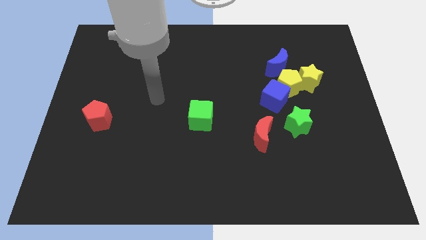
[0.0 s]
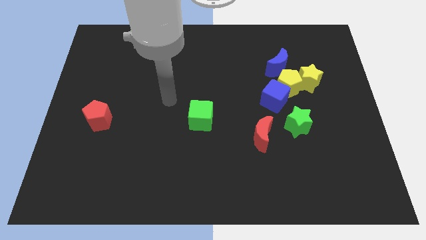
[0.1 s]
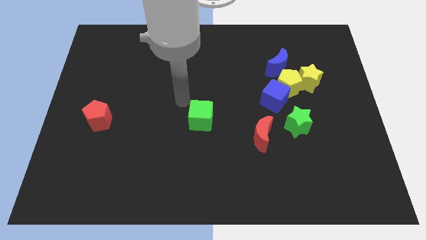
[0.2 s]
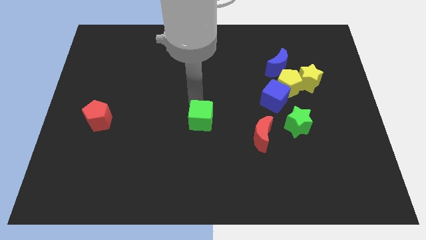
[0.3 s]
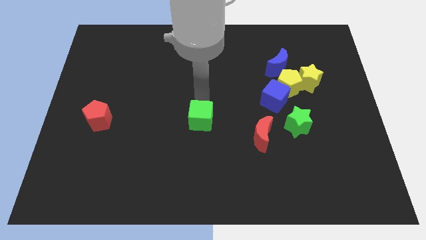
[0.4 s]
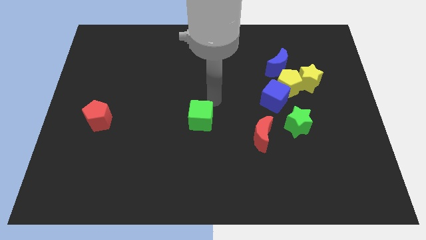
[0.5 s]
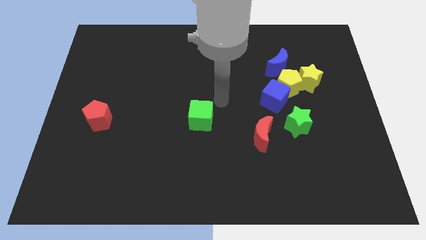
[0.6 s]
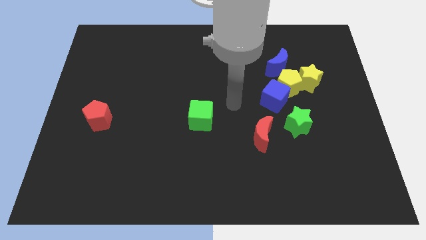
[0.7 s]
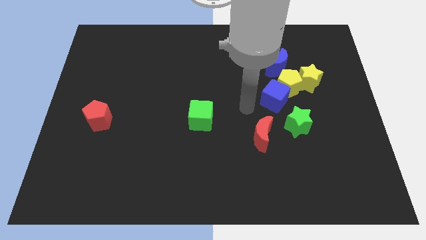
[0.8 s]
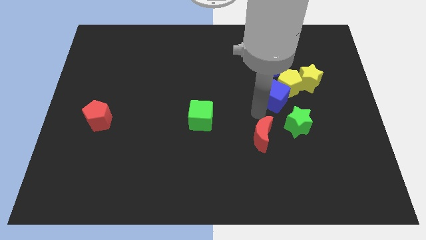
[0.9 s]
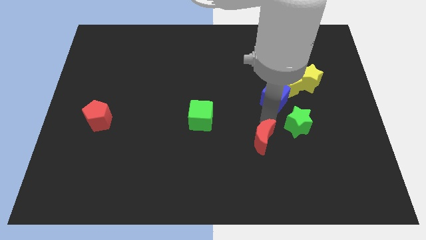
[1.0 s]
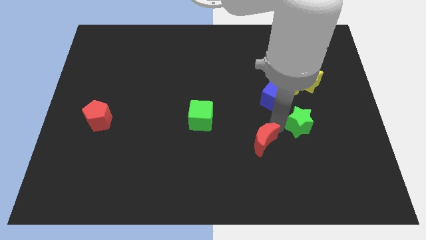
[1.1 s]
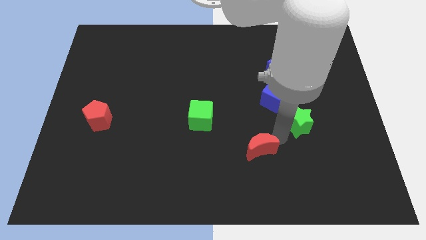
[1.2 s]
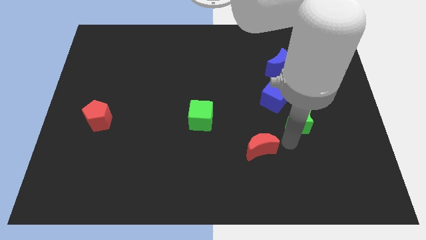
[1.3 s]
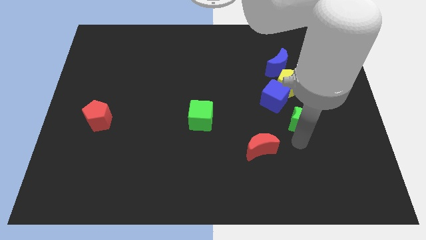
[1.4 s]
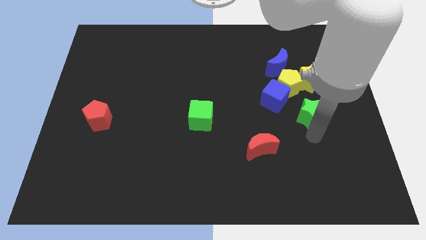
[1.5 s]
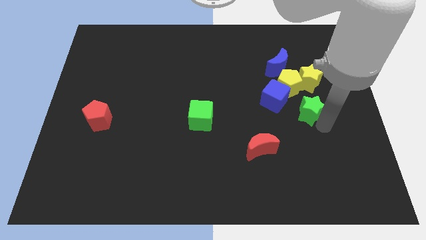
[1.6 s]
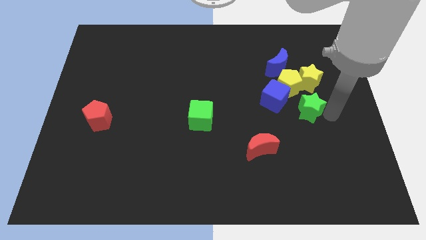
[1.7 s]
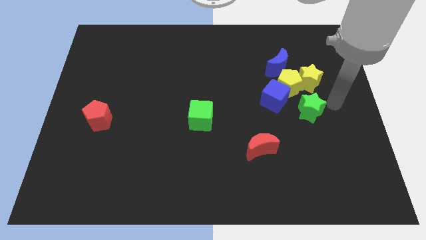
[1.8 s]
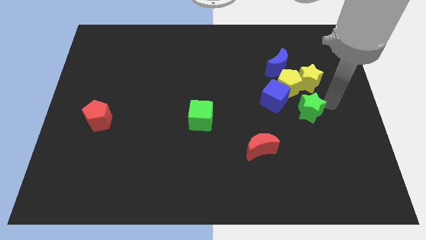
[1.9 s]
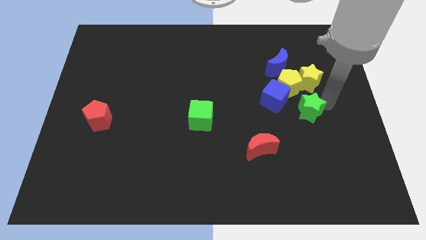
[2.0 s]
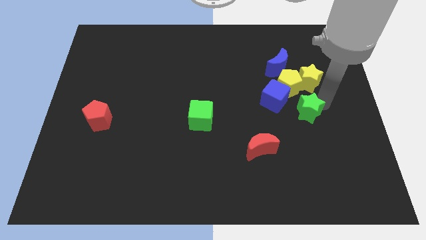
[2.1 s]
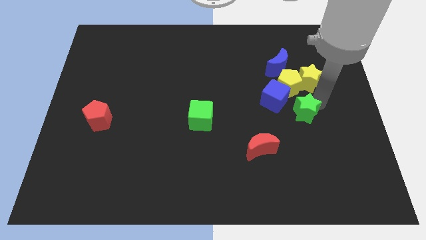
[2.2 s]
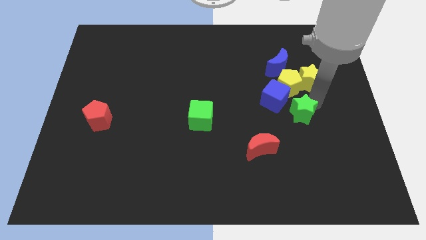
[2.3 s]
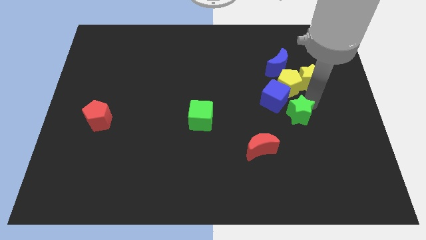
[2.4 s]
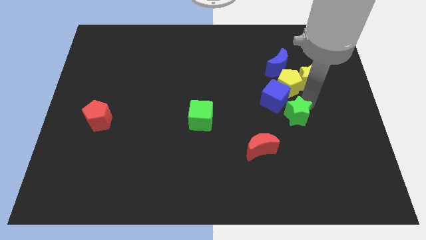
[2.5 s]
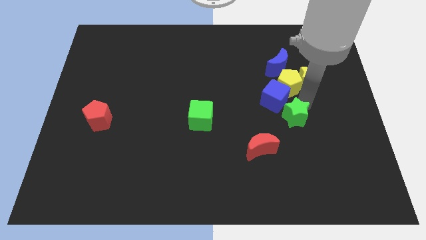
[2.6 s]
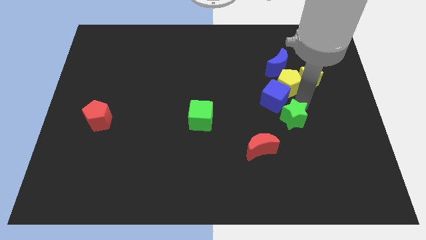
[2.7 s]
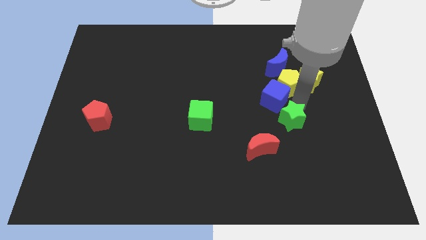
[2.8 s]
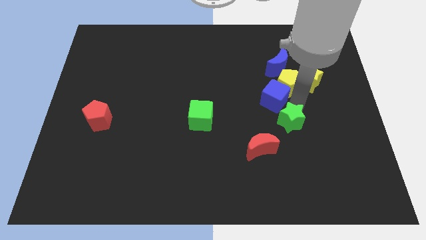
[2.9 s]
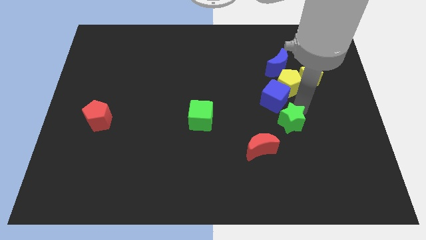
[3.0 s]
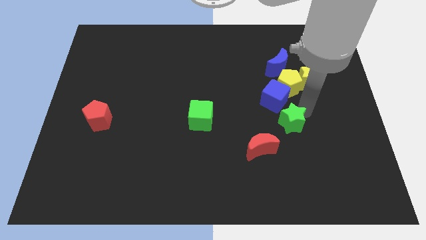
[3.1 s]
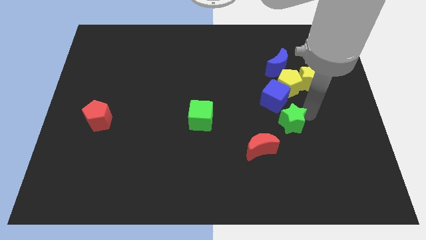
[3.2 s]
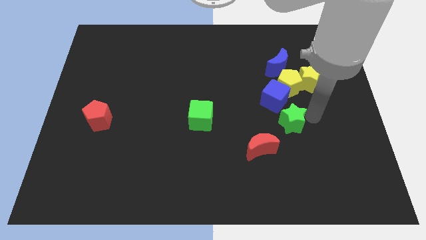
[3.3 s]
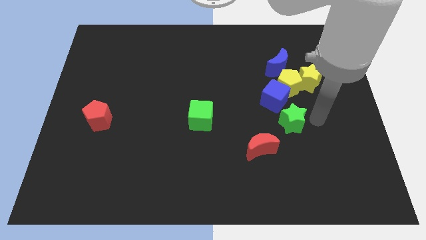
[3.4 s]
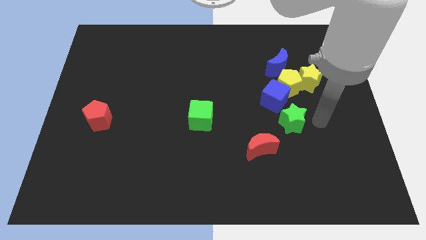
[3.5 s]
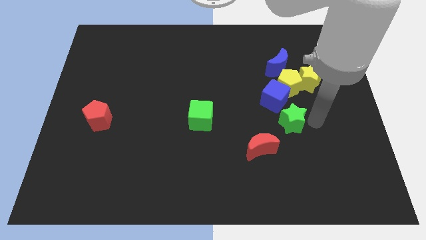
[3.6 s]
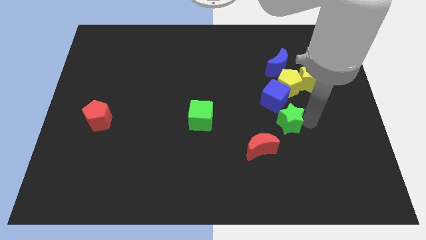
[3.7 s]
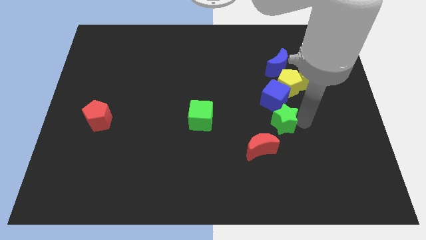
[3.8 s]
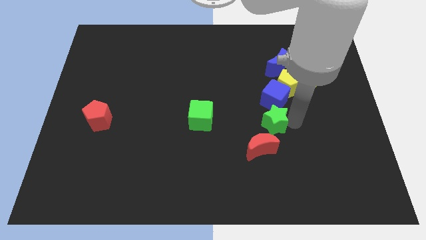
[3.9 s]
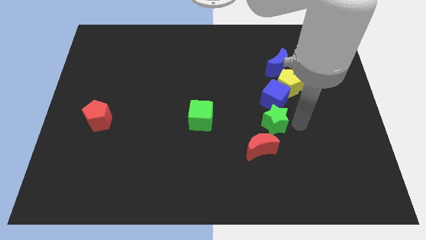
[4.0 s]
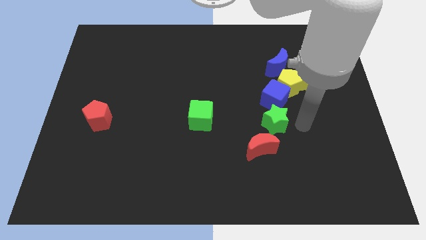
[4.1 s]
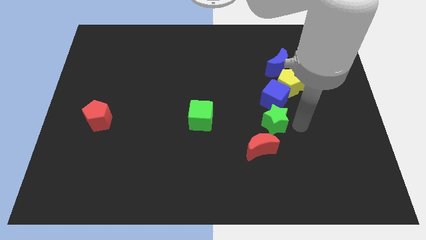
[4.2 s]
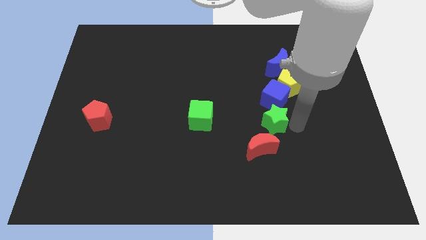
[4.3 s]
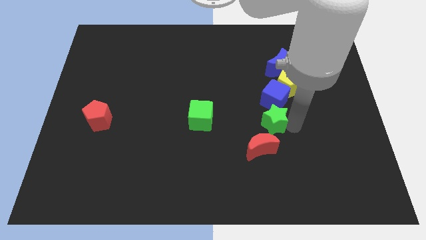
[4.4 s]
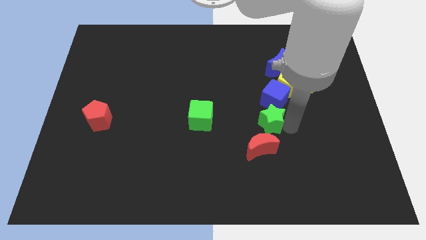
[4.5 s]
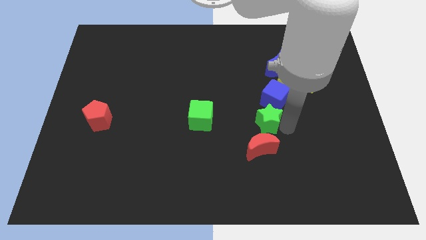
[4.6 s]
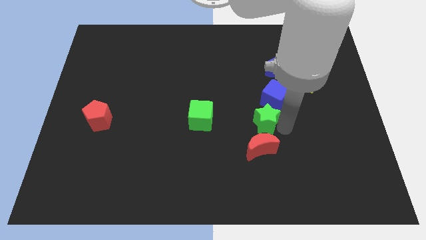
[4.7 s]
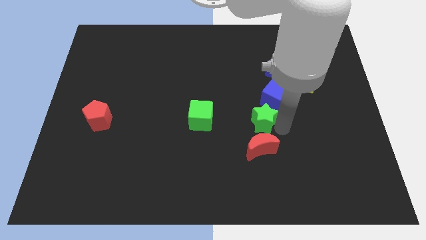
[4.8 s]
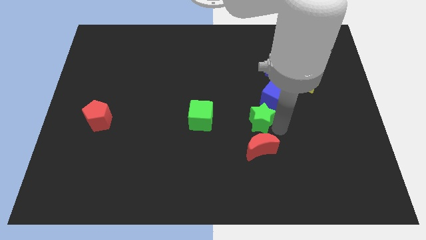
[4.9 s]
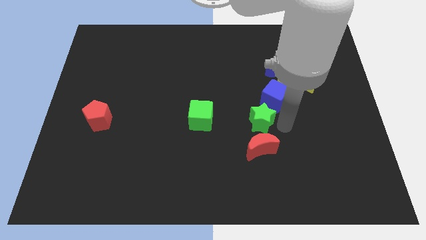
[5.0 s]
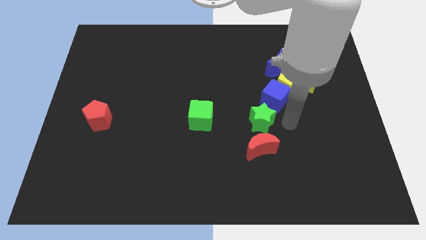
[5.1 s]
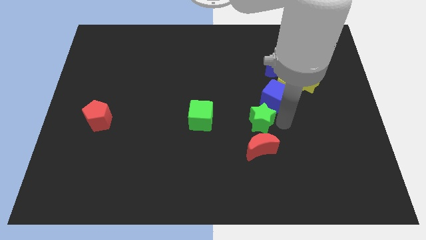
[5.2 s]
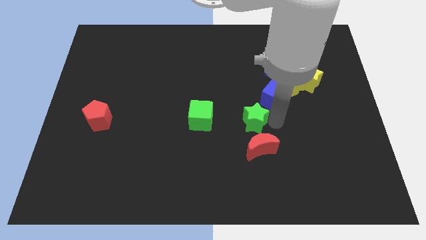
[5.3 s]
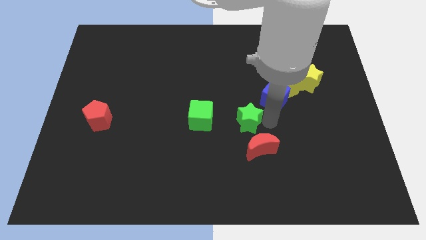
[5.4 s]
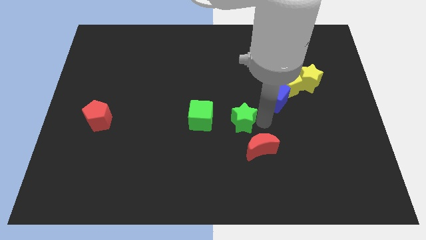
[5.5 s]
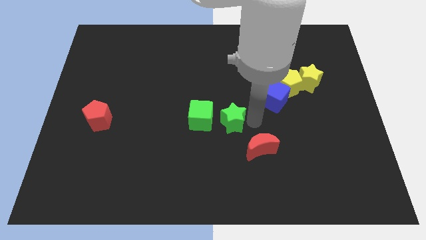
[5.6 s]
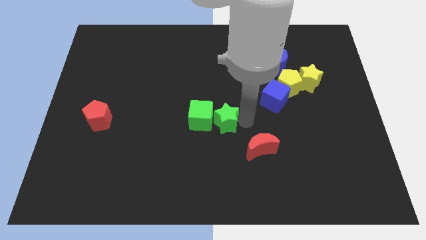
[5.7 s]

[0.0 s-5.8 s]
move the green star close to the green cube

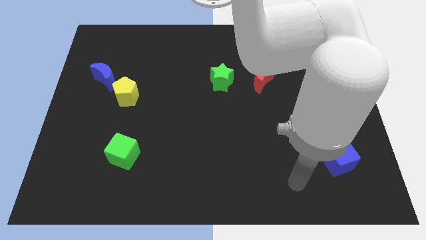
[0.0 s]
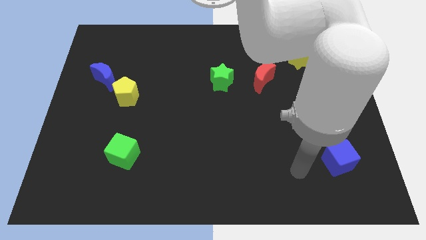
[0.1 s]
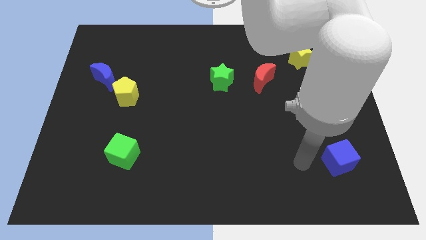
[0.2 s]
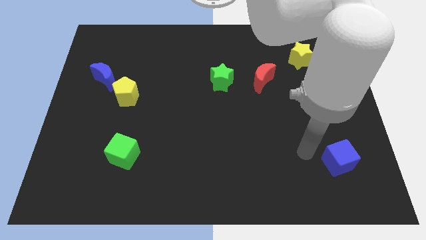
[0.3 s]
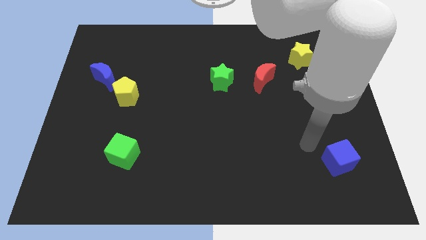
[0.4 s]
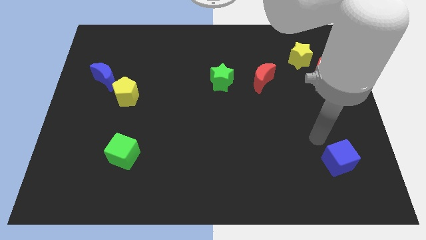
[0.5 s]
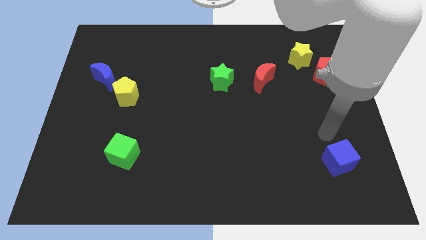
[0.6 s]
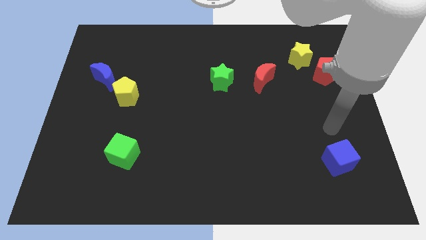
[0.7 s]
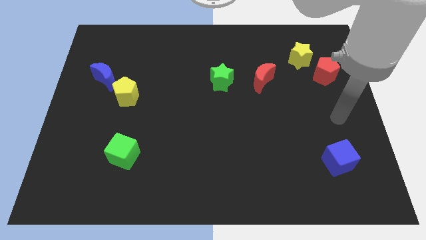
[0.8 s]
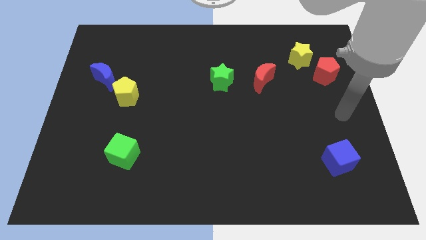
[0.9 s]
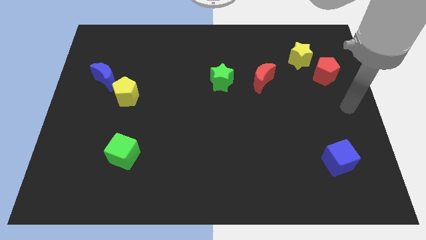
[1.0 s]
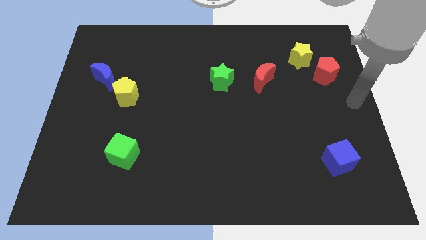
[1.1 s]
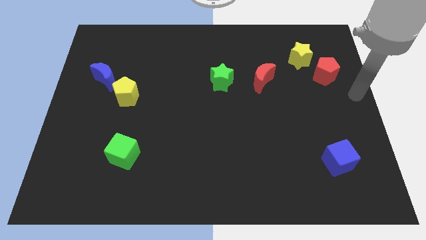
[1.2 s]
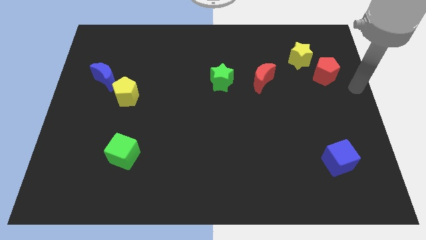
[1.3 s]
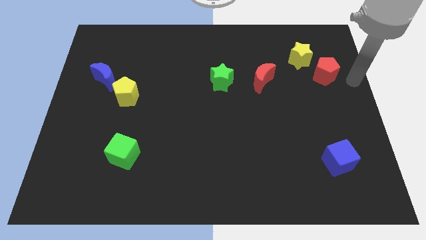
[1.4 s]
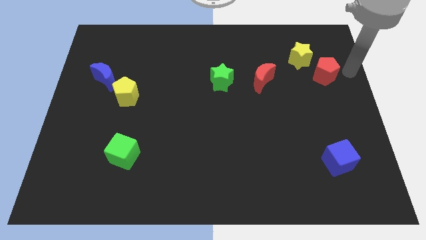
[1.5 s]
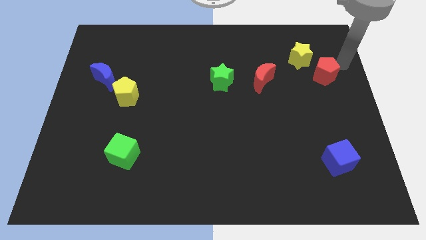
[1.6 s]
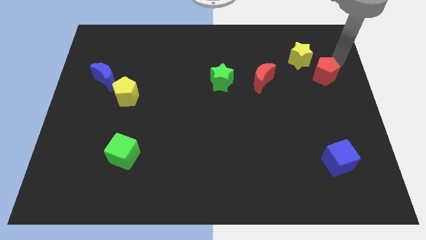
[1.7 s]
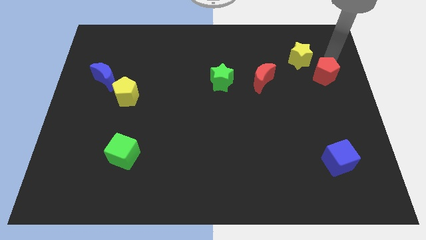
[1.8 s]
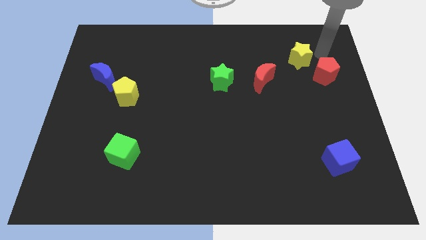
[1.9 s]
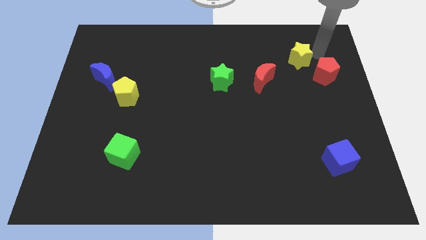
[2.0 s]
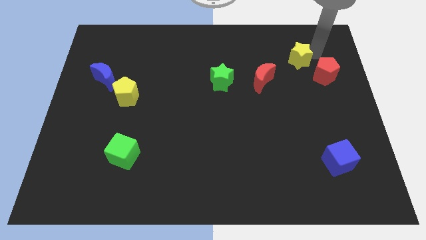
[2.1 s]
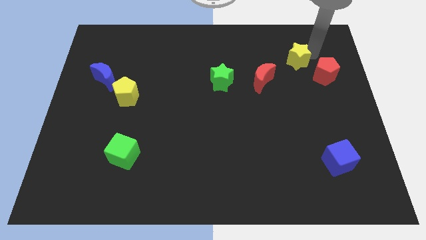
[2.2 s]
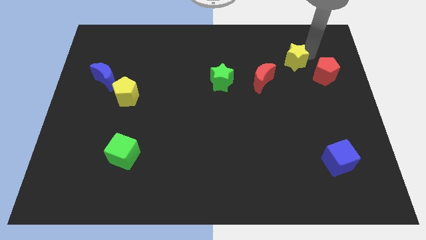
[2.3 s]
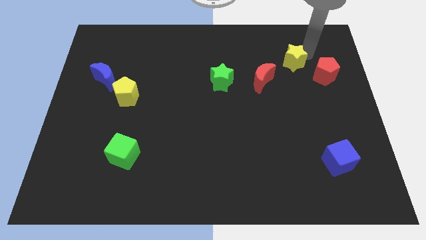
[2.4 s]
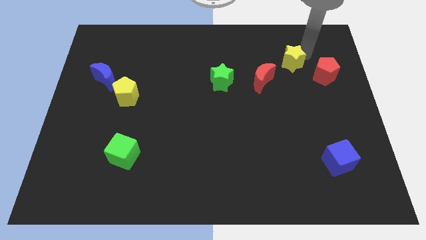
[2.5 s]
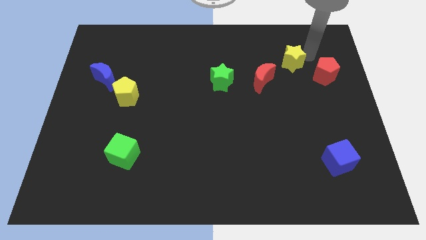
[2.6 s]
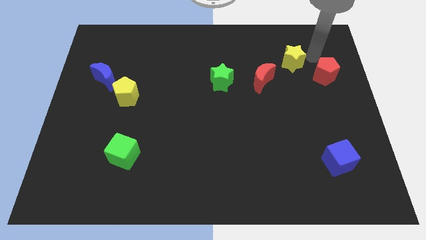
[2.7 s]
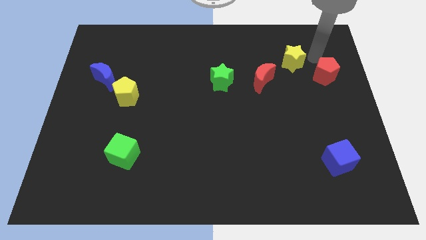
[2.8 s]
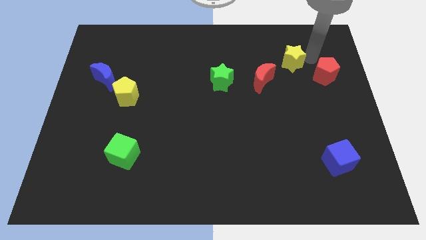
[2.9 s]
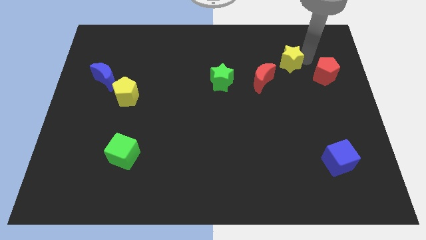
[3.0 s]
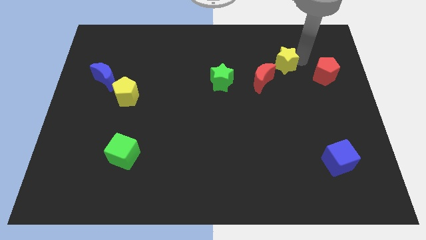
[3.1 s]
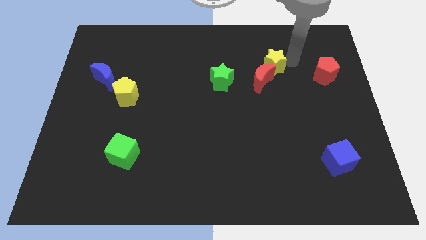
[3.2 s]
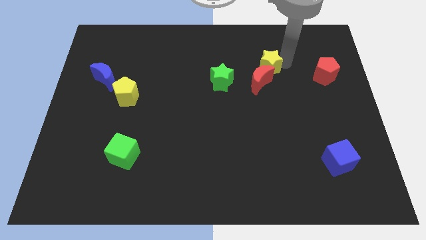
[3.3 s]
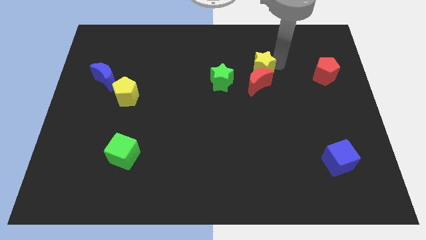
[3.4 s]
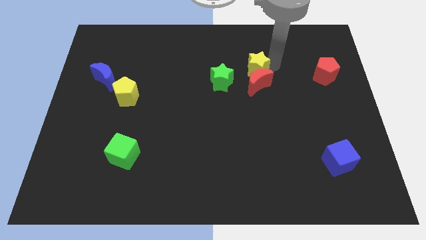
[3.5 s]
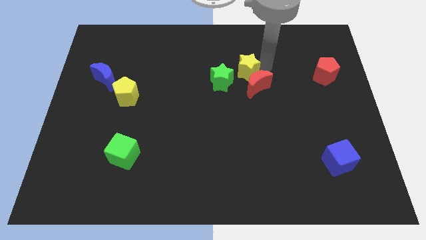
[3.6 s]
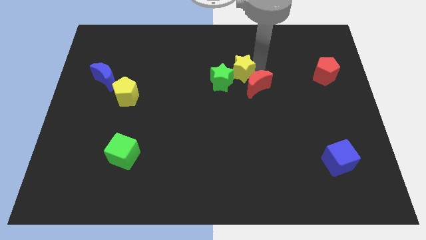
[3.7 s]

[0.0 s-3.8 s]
put the yellow star towards the green star
